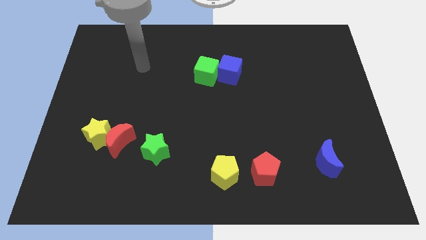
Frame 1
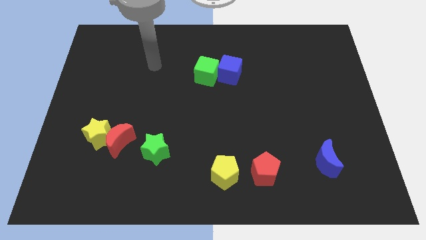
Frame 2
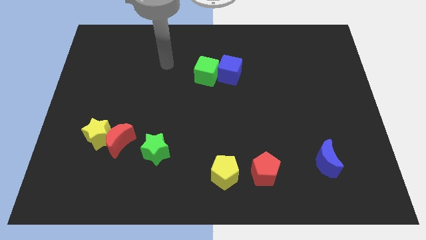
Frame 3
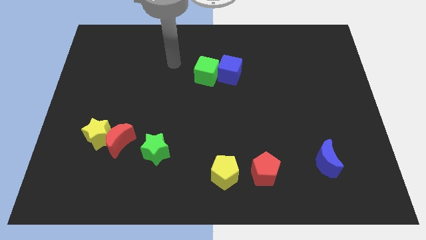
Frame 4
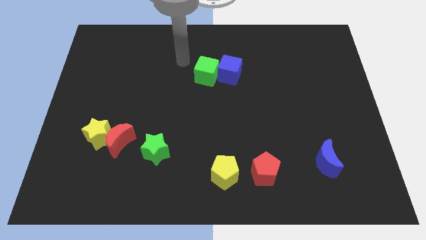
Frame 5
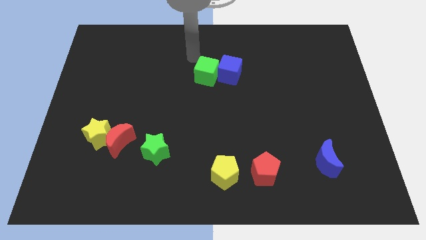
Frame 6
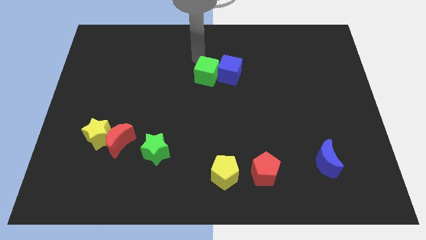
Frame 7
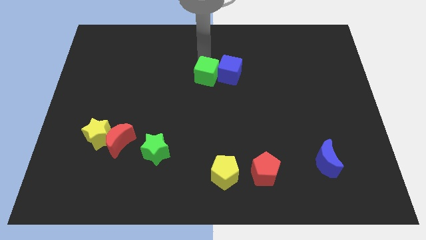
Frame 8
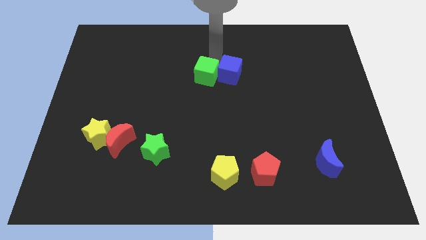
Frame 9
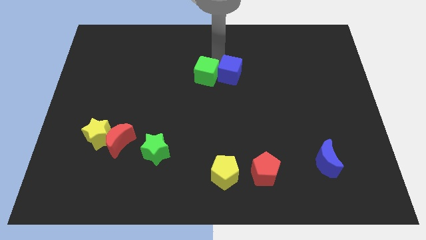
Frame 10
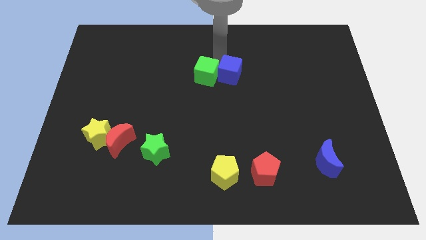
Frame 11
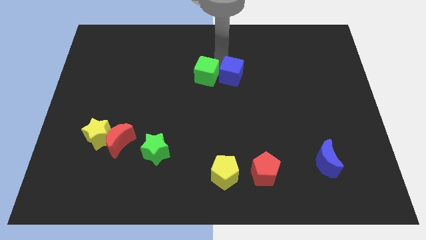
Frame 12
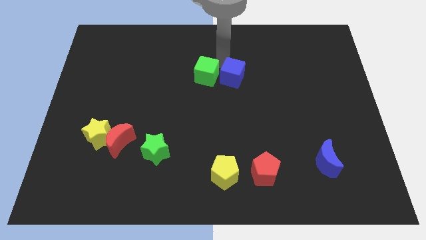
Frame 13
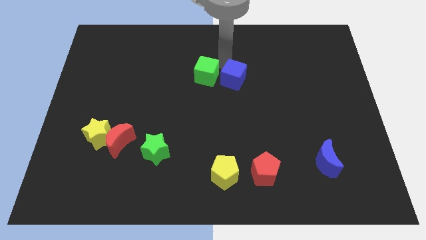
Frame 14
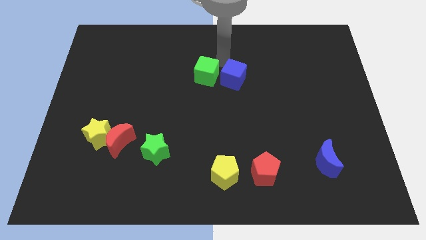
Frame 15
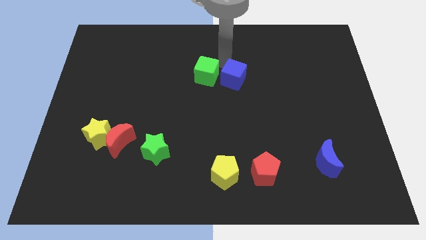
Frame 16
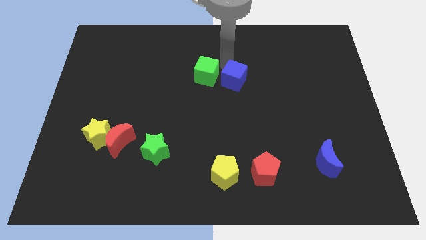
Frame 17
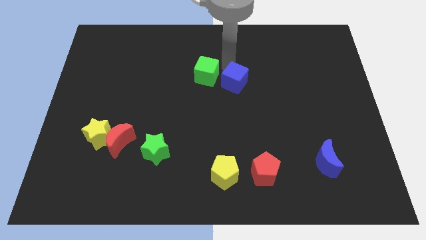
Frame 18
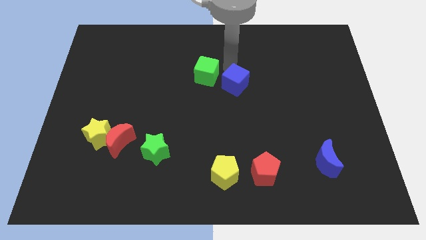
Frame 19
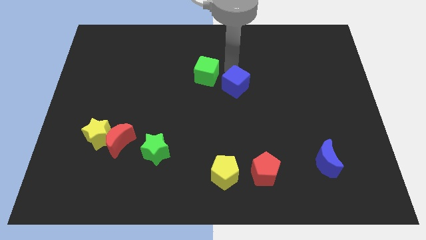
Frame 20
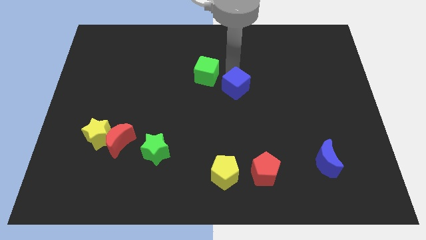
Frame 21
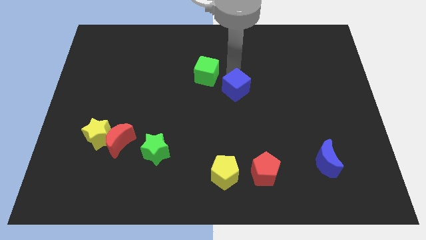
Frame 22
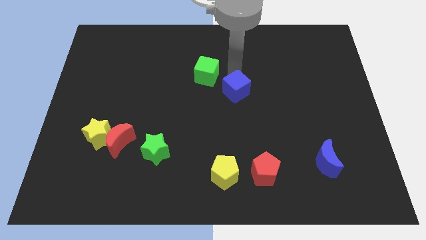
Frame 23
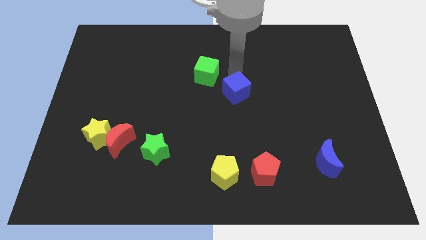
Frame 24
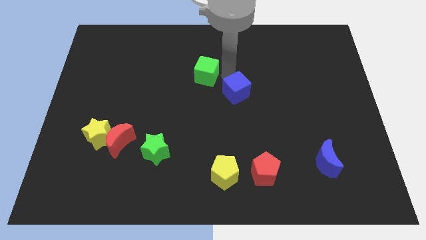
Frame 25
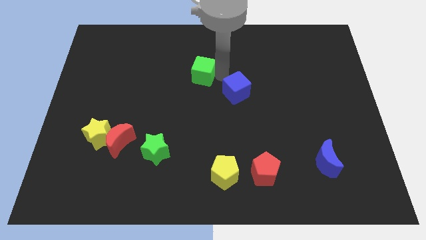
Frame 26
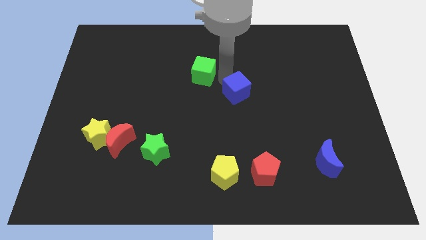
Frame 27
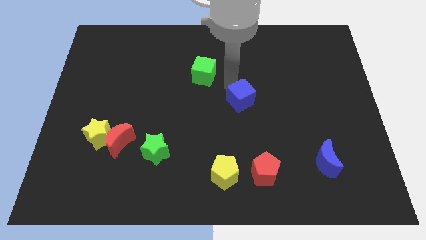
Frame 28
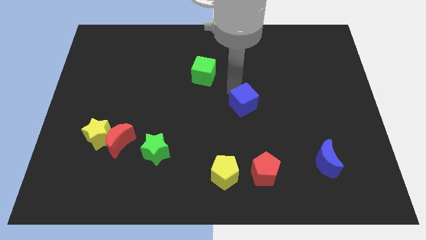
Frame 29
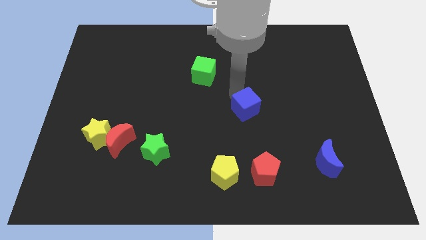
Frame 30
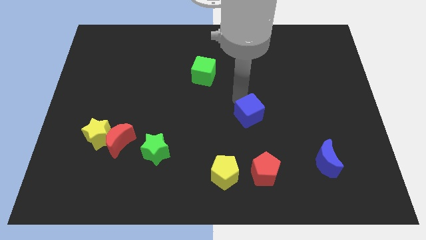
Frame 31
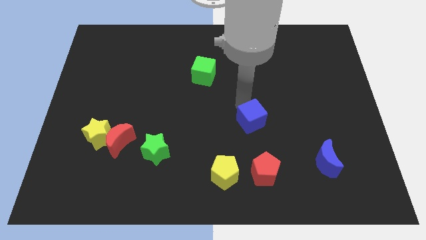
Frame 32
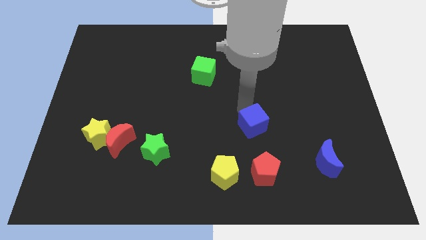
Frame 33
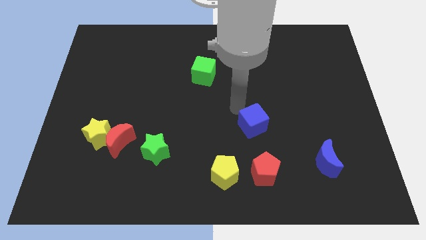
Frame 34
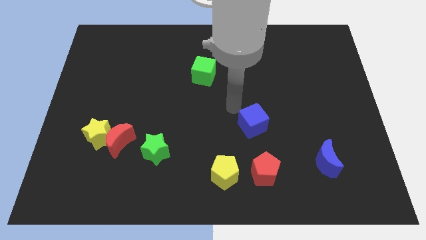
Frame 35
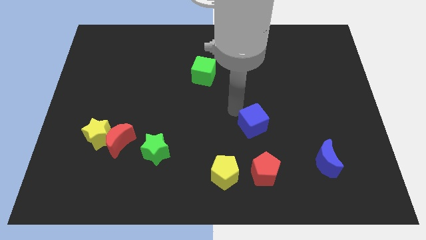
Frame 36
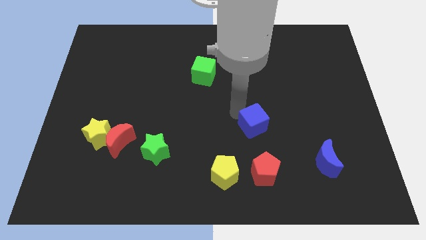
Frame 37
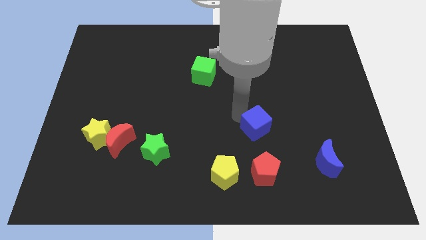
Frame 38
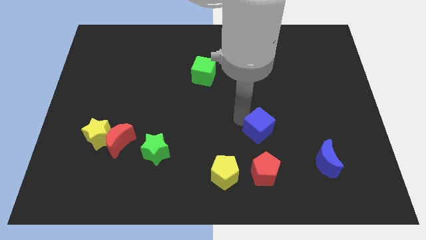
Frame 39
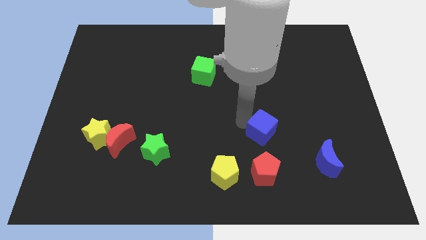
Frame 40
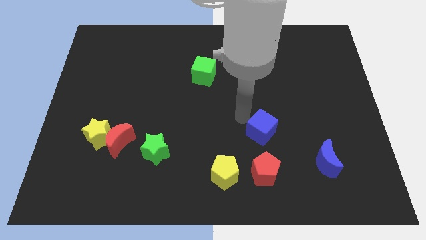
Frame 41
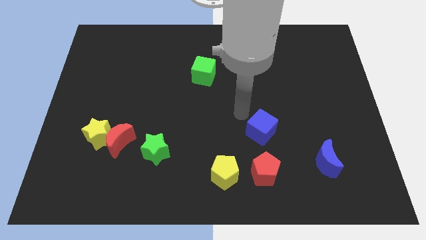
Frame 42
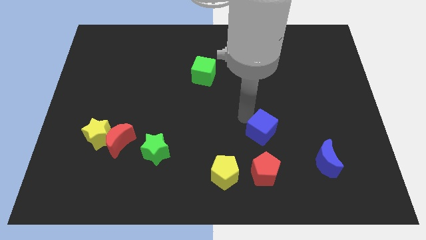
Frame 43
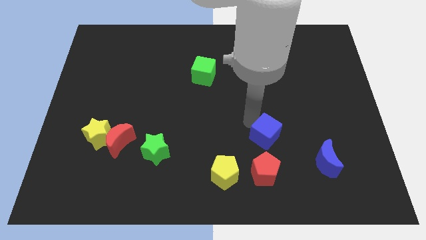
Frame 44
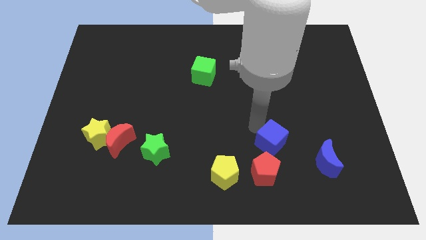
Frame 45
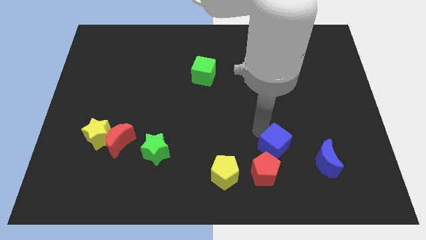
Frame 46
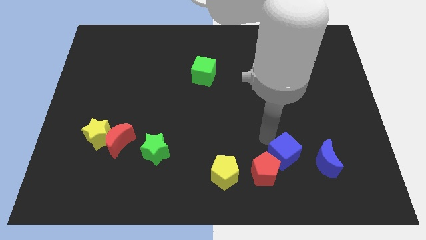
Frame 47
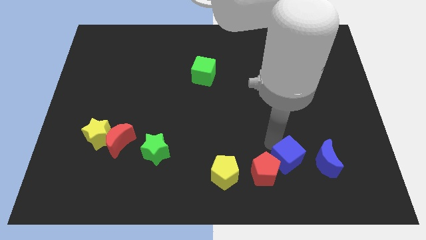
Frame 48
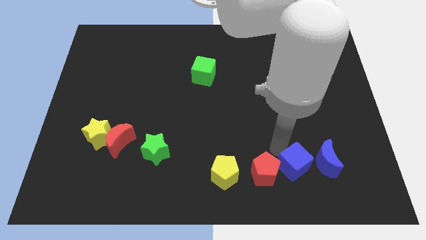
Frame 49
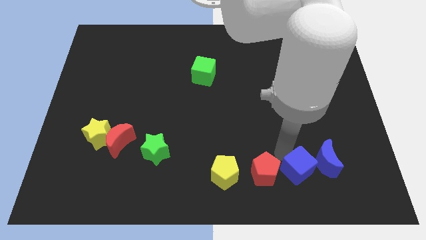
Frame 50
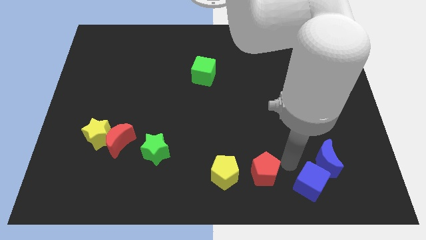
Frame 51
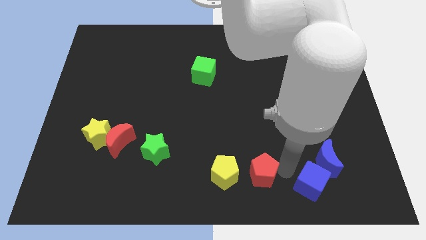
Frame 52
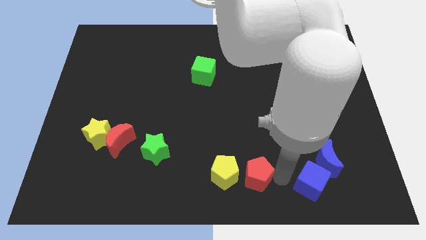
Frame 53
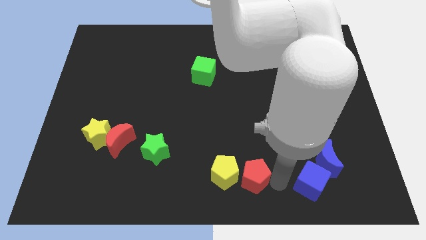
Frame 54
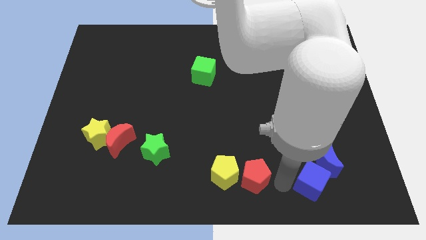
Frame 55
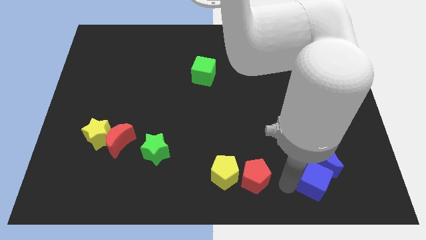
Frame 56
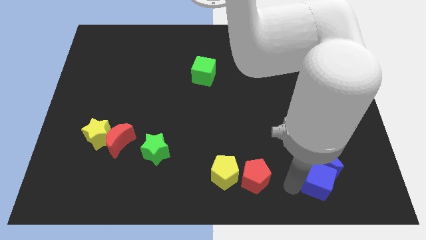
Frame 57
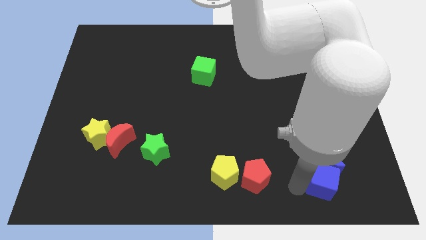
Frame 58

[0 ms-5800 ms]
slide the blue cube to the bottom right side of the blue moon

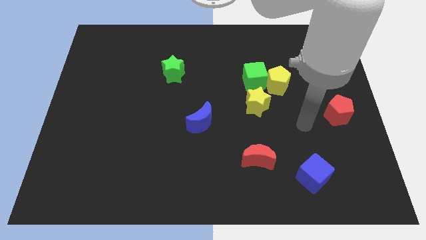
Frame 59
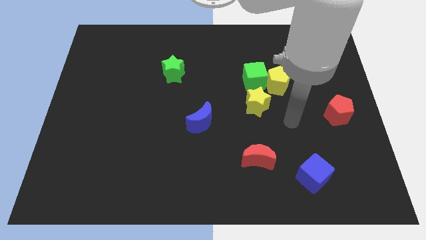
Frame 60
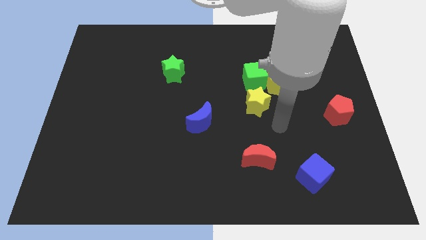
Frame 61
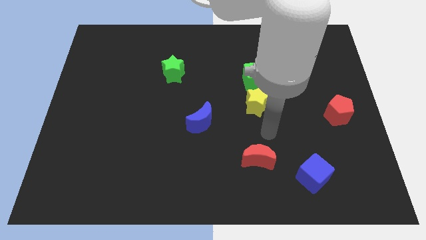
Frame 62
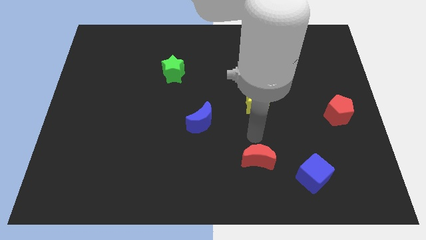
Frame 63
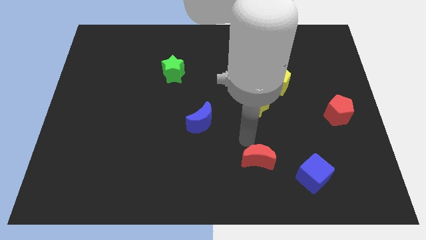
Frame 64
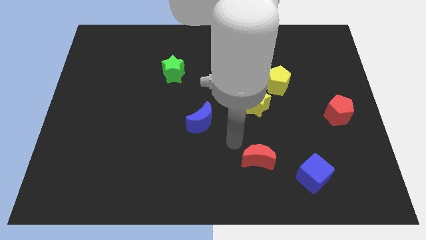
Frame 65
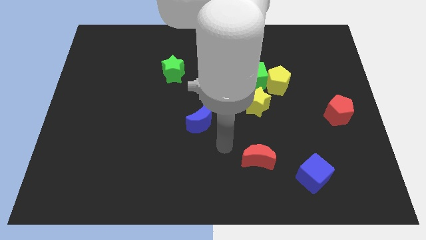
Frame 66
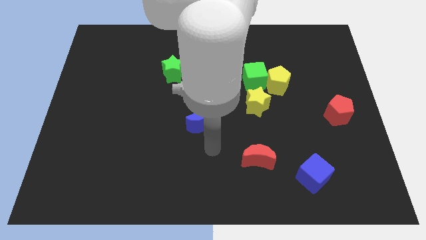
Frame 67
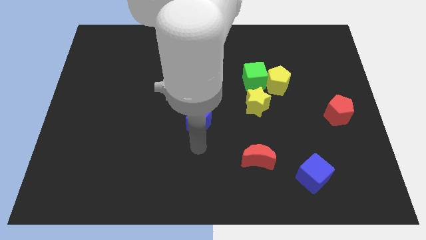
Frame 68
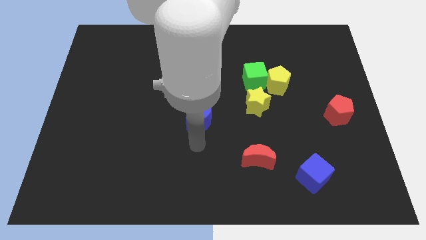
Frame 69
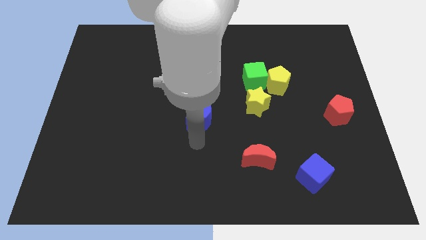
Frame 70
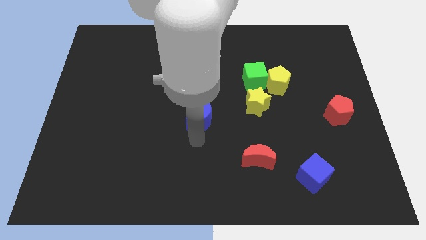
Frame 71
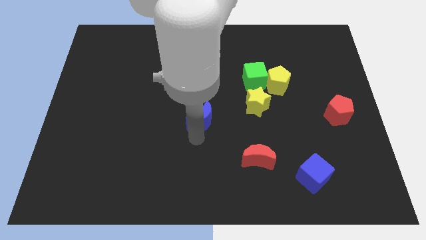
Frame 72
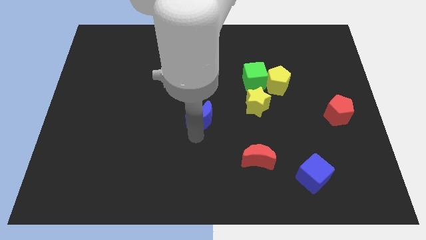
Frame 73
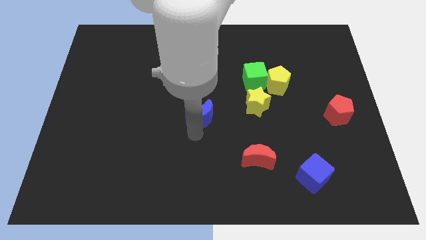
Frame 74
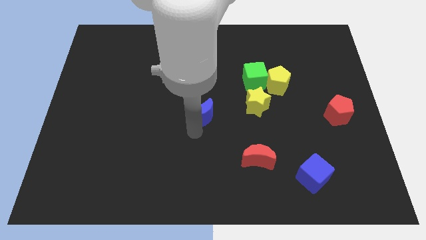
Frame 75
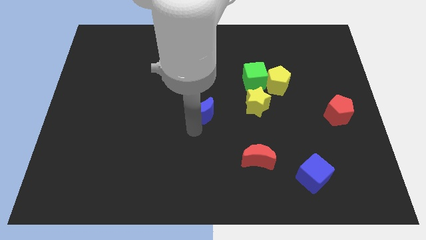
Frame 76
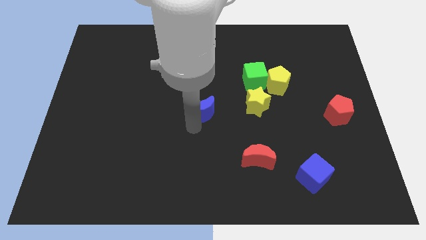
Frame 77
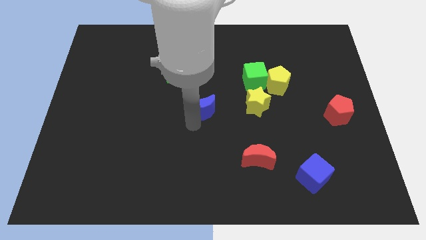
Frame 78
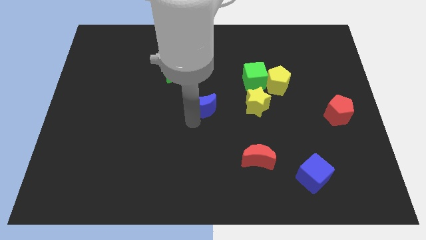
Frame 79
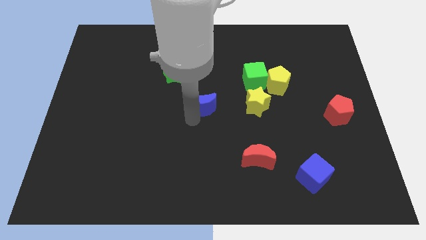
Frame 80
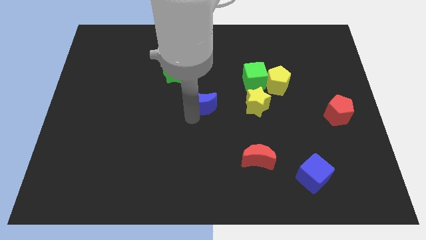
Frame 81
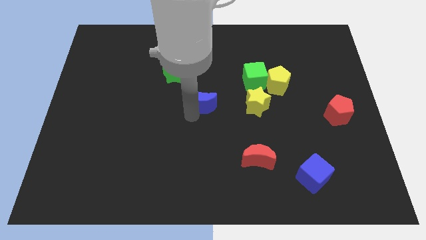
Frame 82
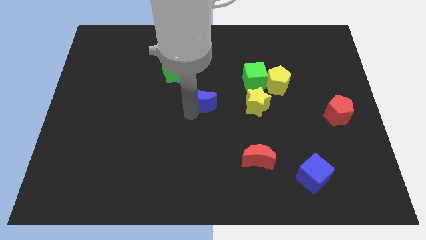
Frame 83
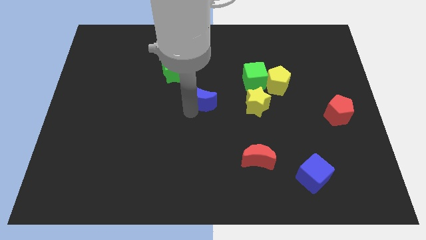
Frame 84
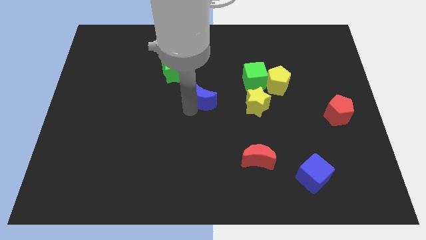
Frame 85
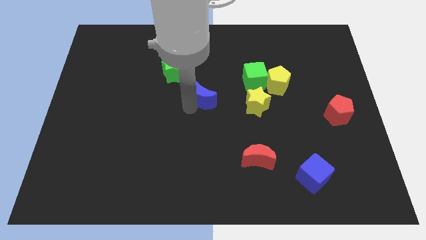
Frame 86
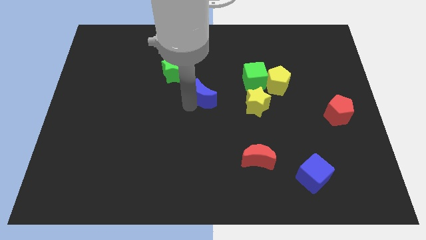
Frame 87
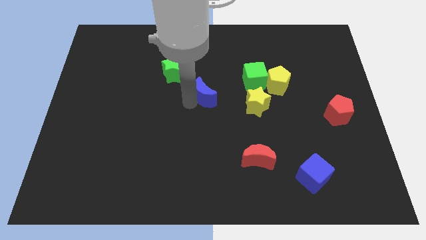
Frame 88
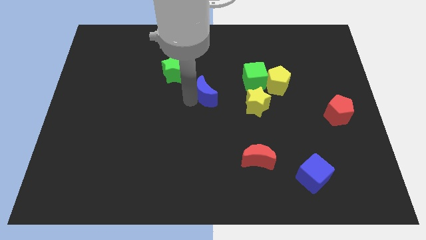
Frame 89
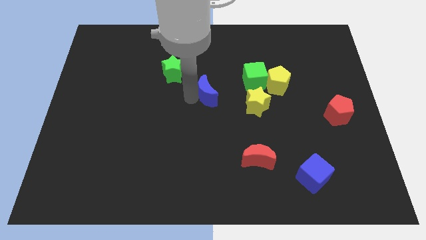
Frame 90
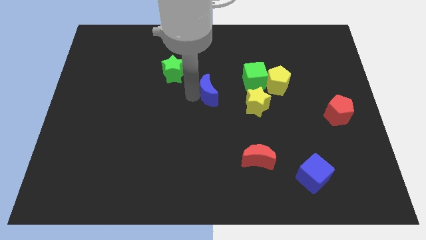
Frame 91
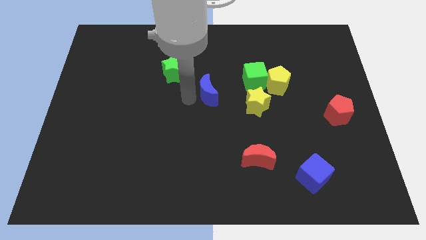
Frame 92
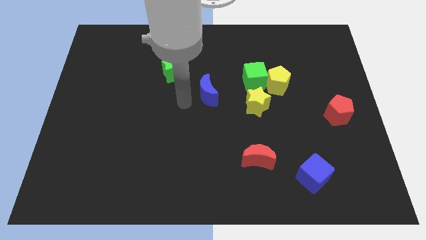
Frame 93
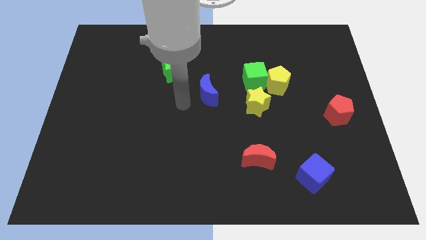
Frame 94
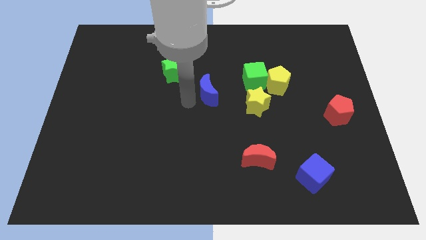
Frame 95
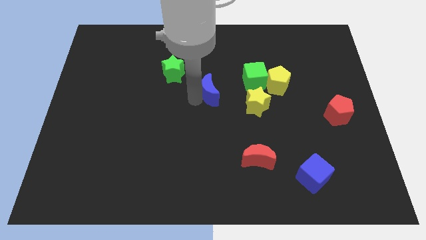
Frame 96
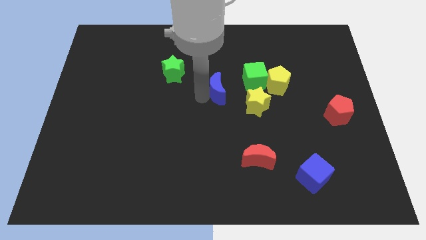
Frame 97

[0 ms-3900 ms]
put the blue moon to the left of the yellow pentagon
